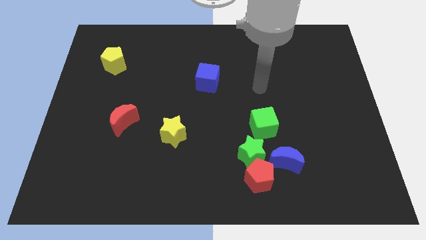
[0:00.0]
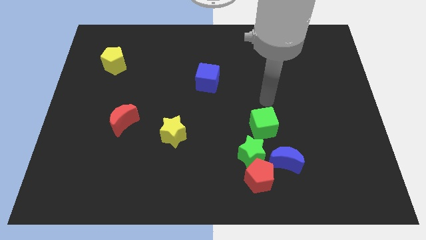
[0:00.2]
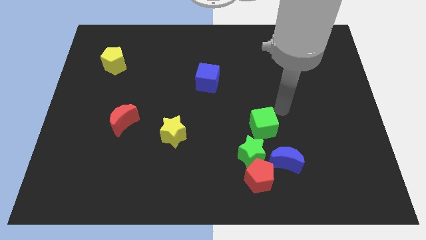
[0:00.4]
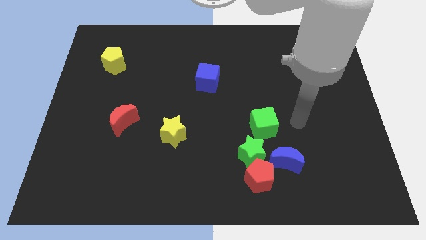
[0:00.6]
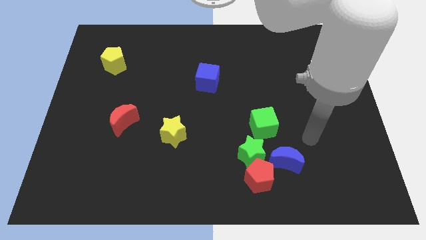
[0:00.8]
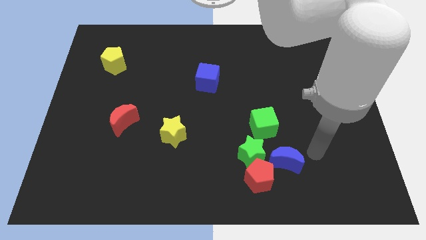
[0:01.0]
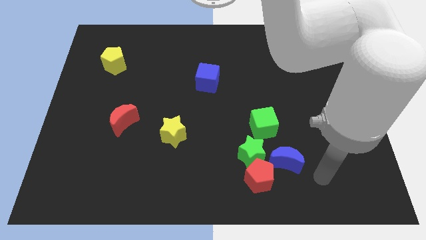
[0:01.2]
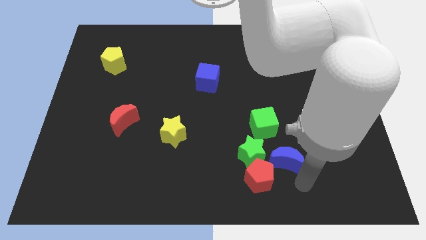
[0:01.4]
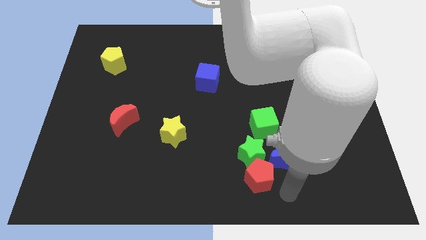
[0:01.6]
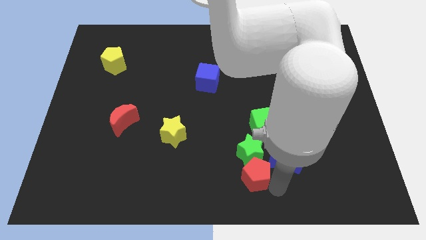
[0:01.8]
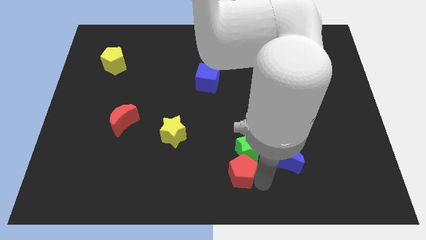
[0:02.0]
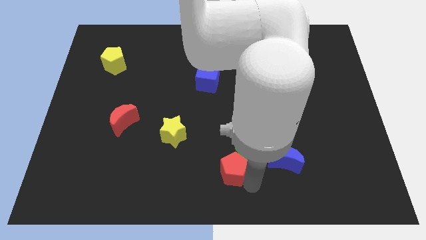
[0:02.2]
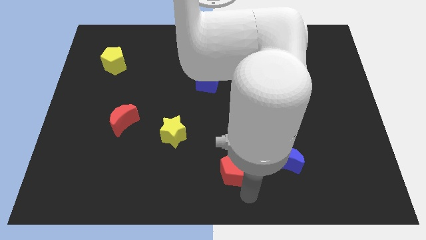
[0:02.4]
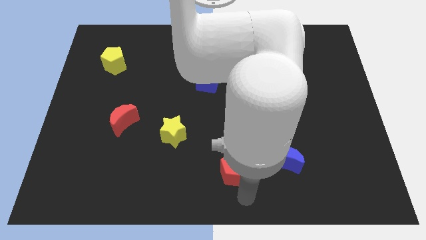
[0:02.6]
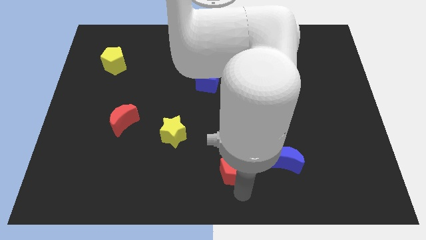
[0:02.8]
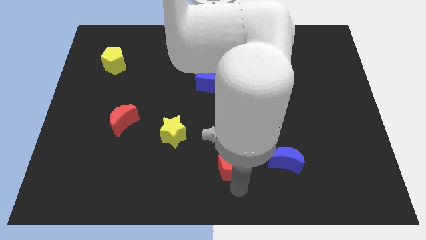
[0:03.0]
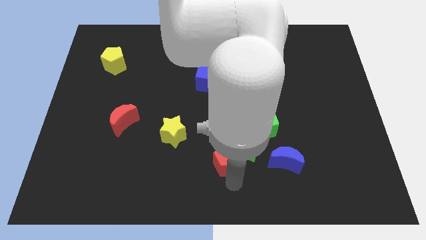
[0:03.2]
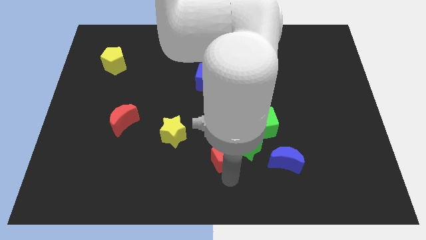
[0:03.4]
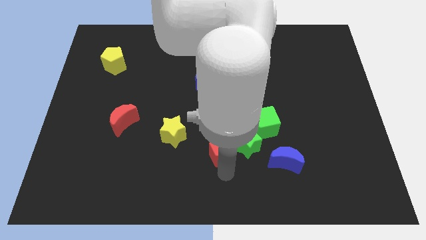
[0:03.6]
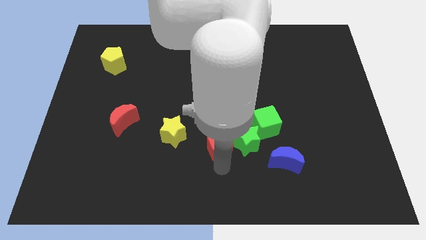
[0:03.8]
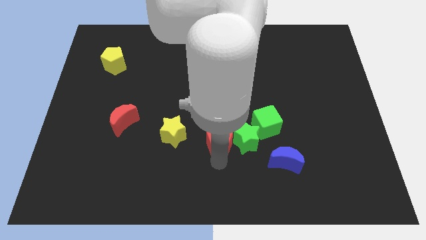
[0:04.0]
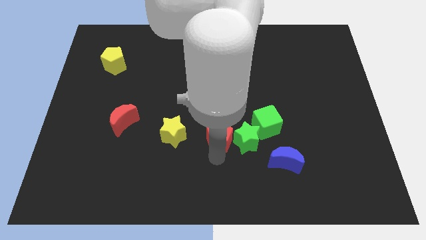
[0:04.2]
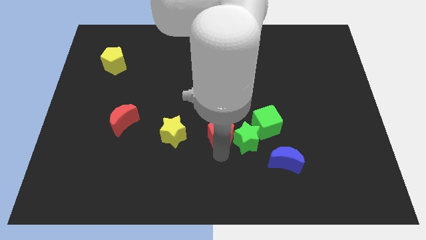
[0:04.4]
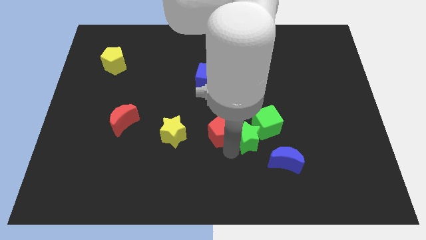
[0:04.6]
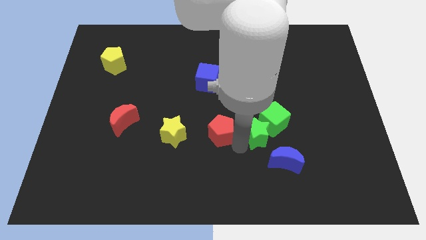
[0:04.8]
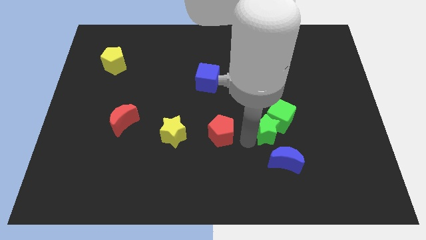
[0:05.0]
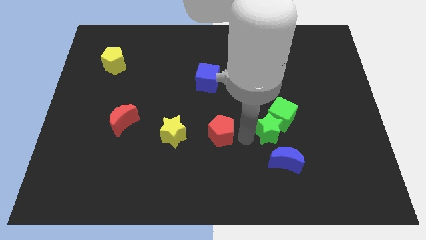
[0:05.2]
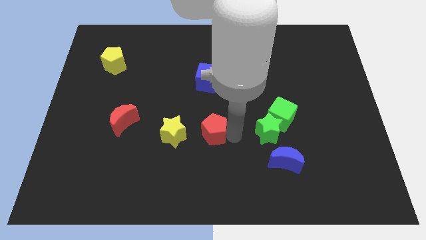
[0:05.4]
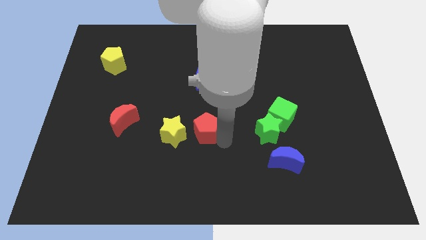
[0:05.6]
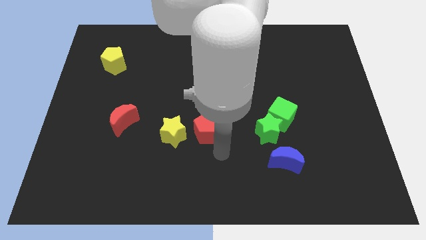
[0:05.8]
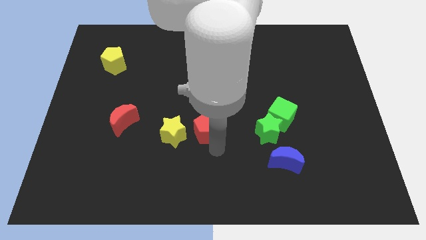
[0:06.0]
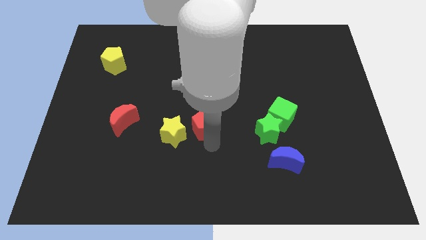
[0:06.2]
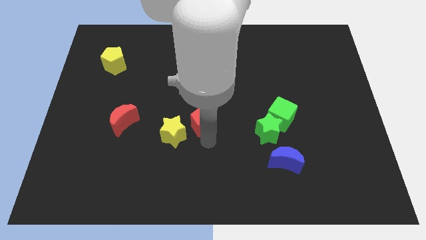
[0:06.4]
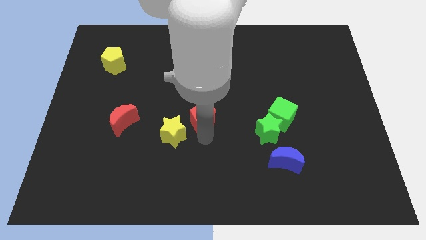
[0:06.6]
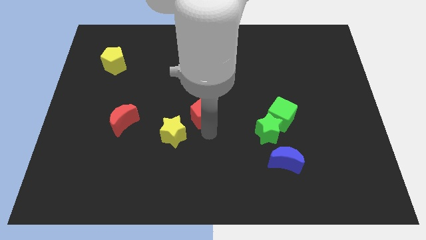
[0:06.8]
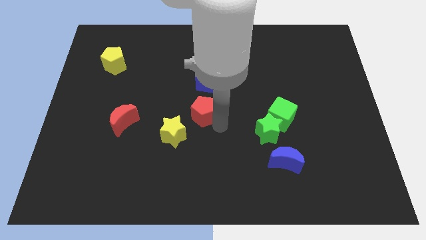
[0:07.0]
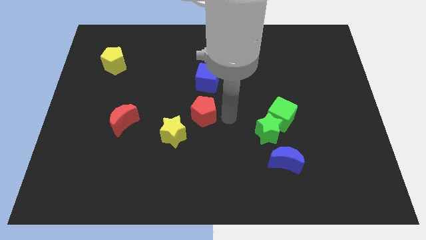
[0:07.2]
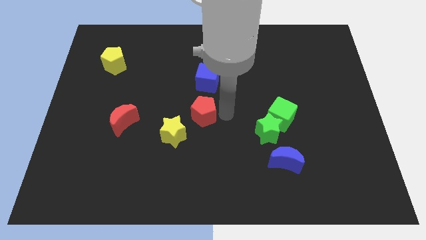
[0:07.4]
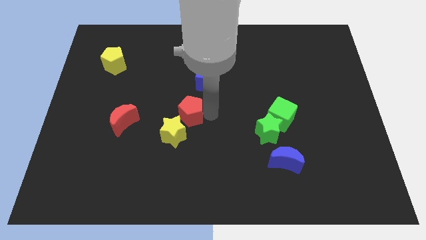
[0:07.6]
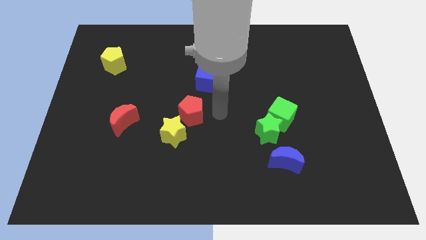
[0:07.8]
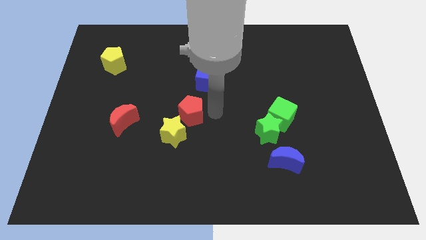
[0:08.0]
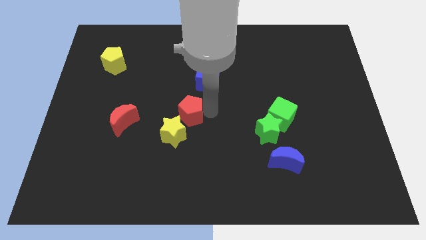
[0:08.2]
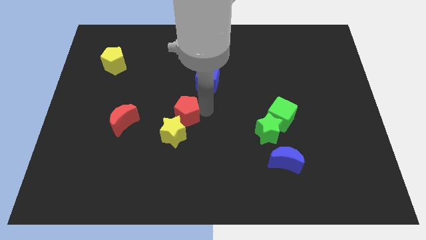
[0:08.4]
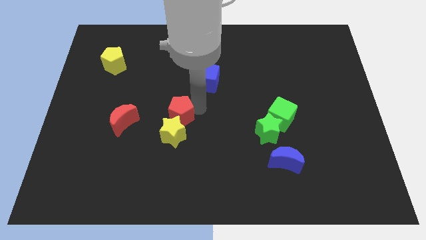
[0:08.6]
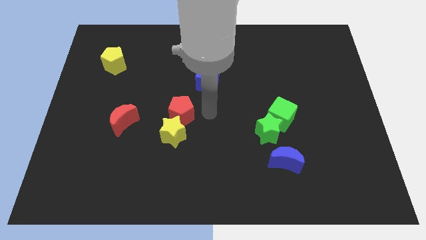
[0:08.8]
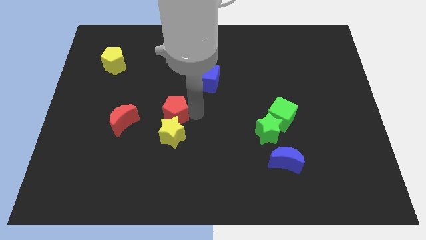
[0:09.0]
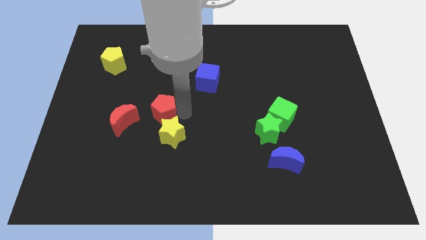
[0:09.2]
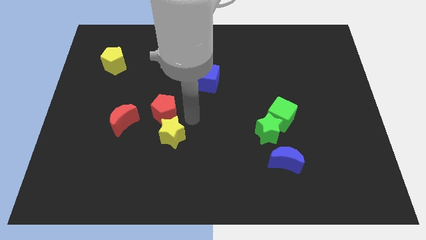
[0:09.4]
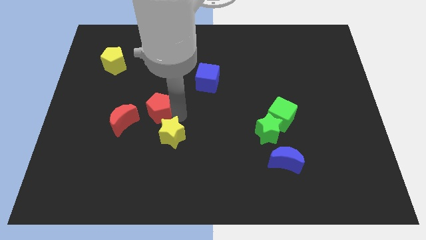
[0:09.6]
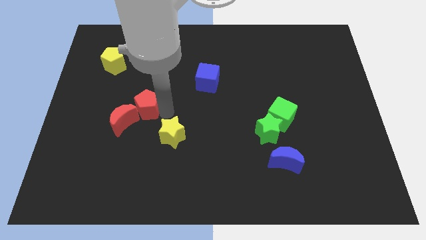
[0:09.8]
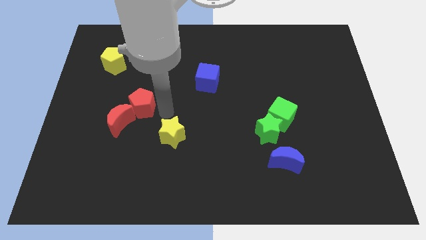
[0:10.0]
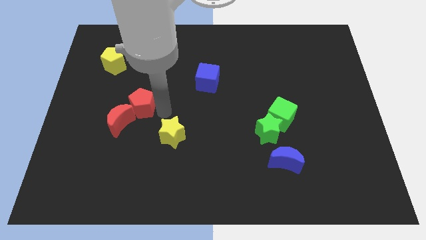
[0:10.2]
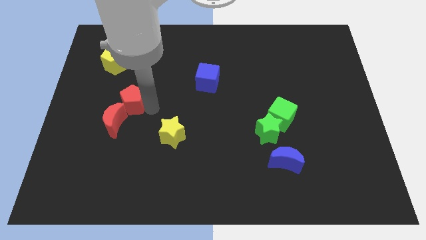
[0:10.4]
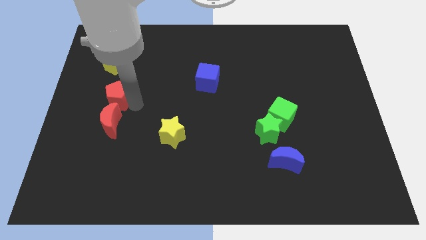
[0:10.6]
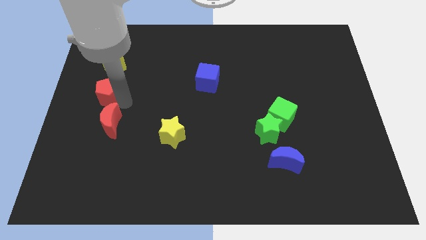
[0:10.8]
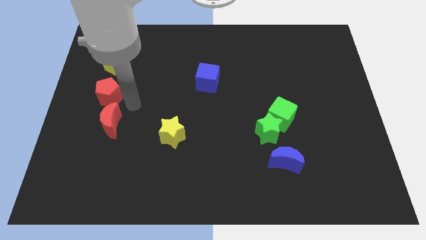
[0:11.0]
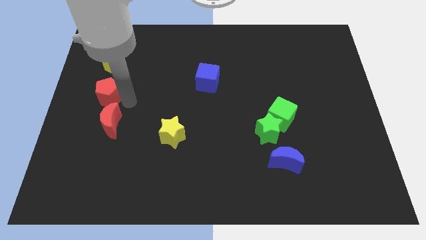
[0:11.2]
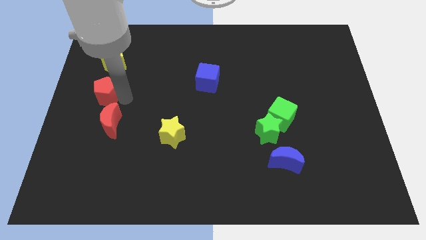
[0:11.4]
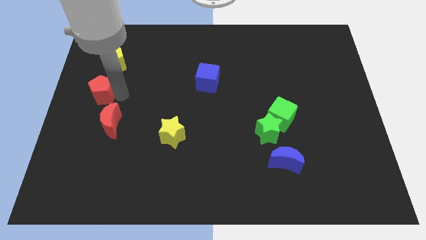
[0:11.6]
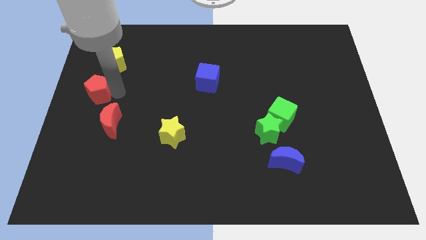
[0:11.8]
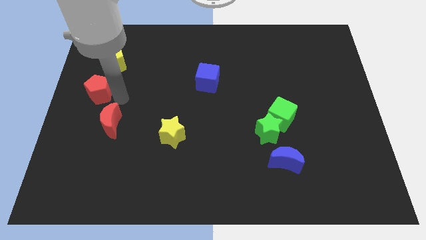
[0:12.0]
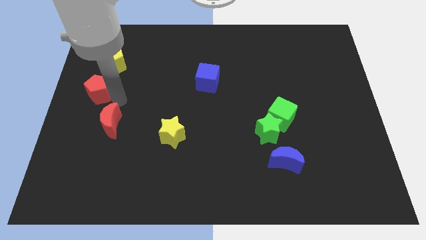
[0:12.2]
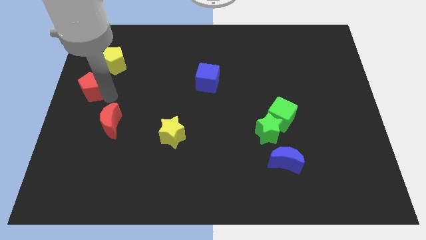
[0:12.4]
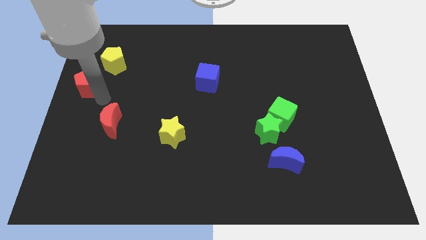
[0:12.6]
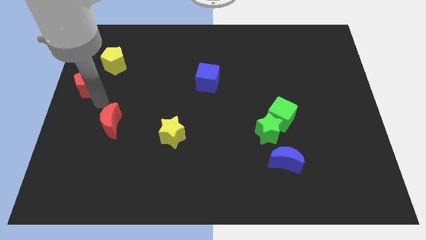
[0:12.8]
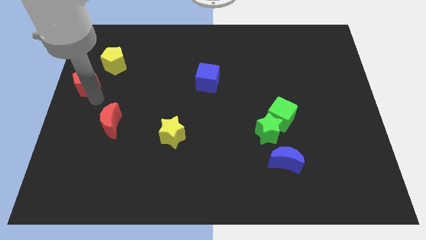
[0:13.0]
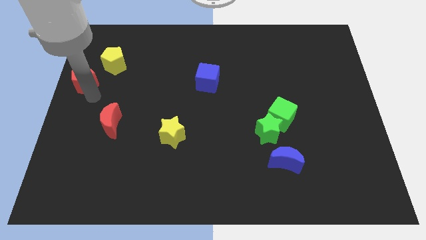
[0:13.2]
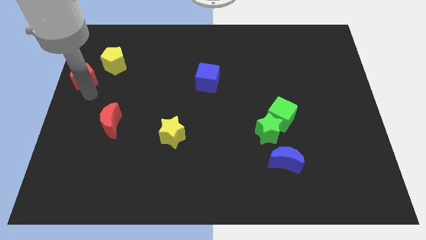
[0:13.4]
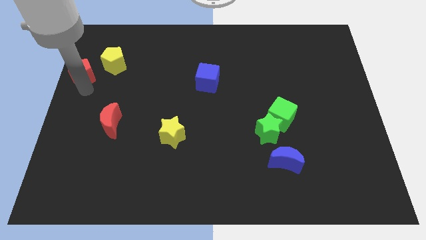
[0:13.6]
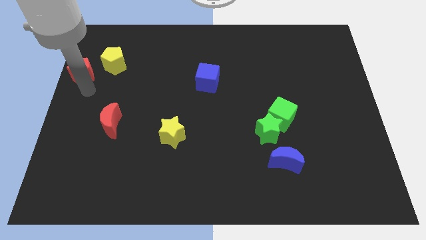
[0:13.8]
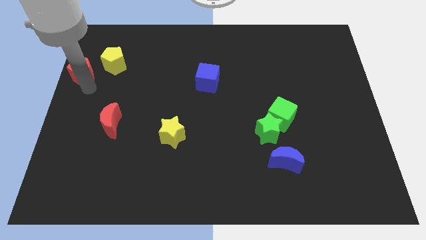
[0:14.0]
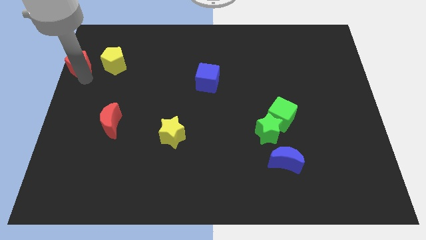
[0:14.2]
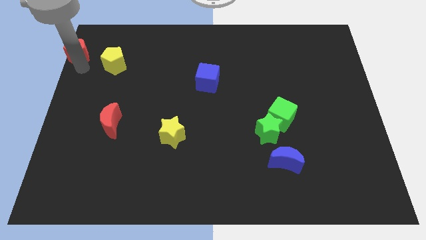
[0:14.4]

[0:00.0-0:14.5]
push the red pentagon to the top left corner
